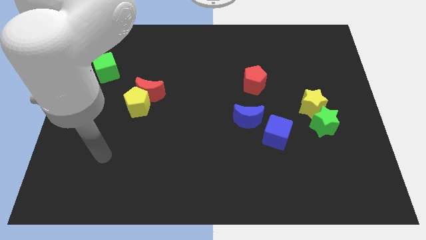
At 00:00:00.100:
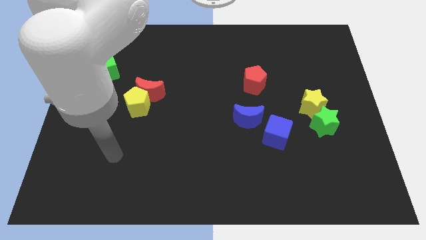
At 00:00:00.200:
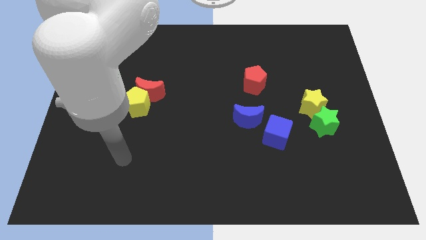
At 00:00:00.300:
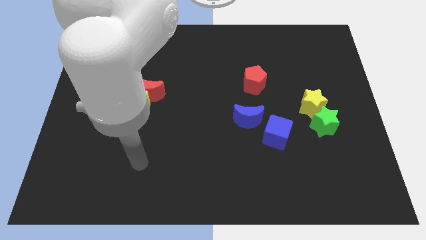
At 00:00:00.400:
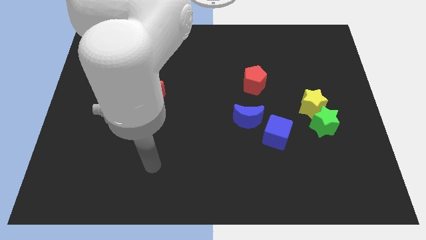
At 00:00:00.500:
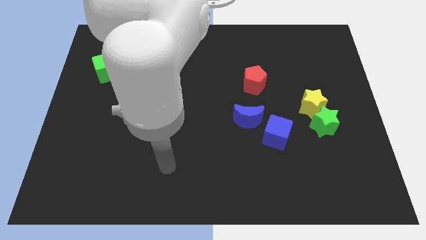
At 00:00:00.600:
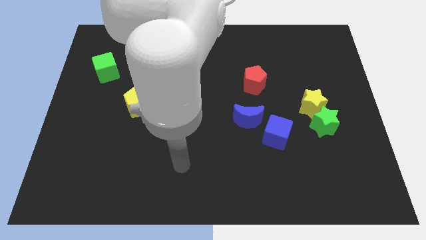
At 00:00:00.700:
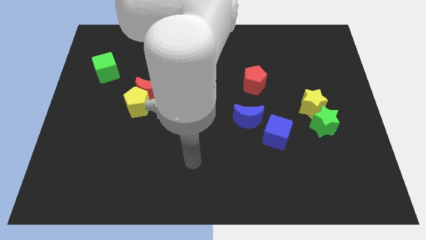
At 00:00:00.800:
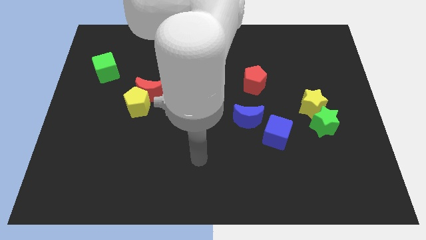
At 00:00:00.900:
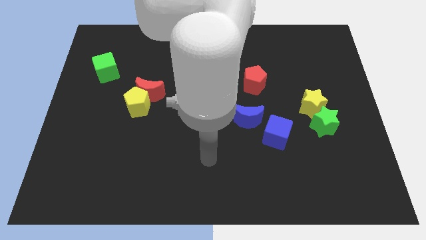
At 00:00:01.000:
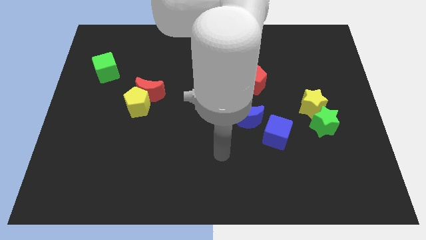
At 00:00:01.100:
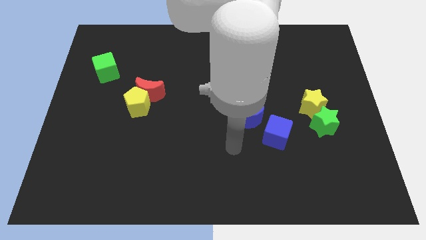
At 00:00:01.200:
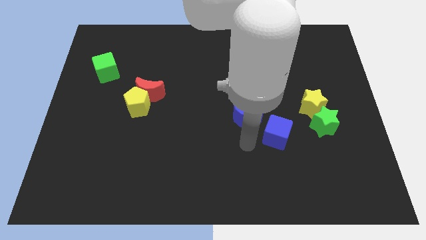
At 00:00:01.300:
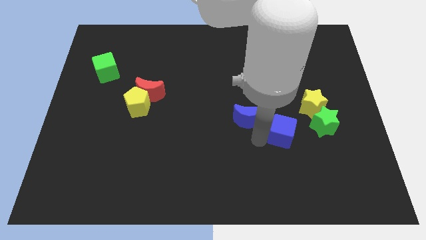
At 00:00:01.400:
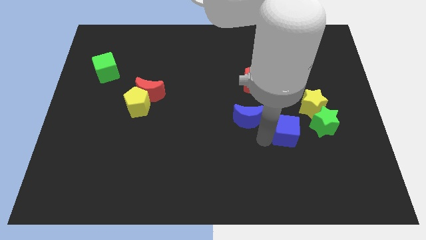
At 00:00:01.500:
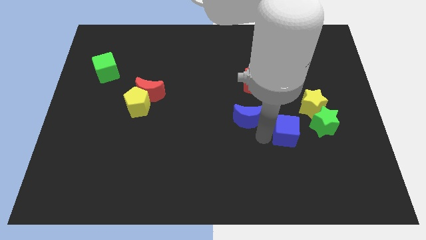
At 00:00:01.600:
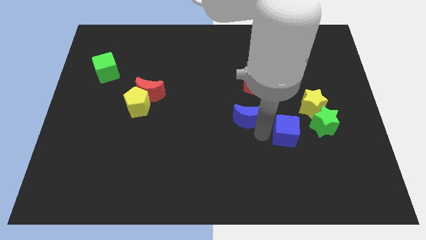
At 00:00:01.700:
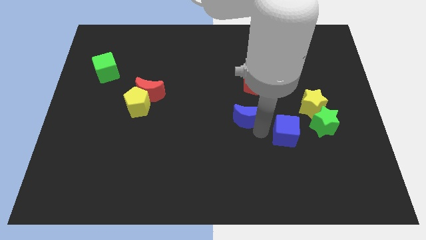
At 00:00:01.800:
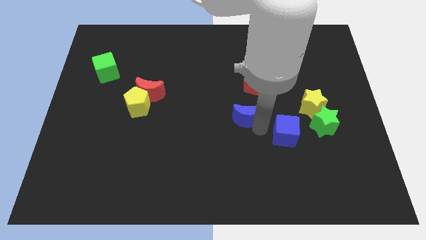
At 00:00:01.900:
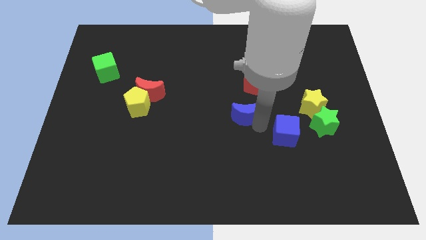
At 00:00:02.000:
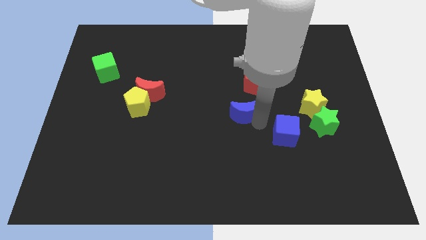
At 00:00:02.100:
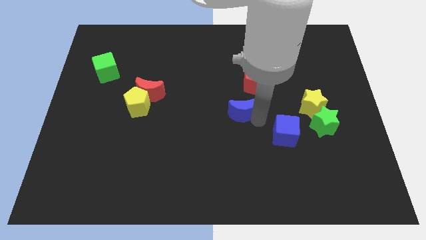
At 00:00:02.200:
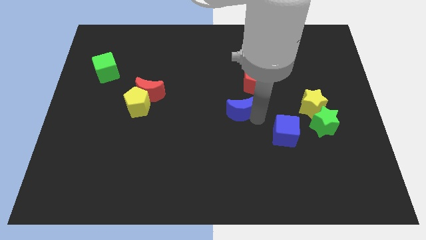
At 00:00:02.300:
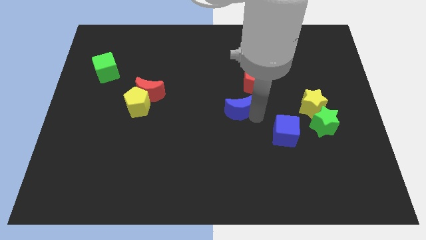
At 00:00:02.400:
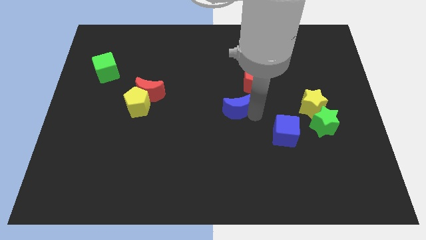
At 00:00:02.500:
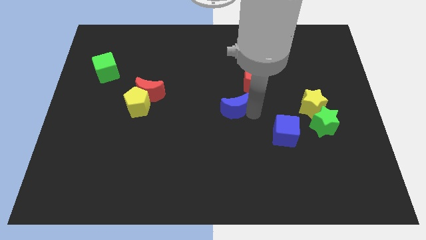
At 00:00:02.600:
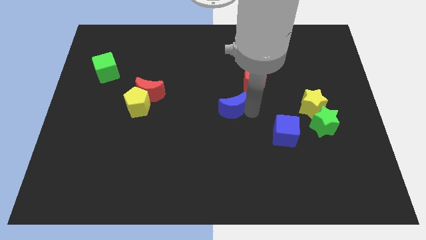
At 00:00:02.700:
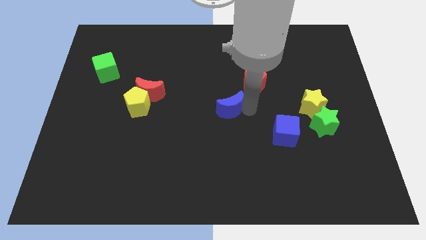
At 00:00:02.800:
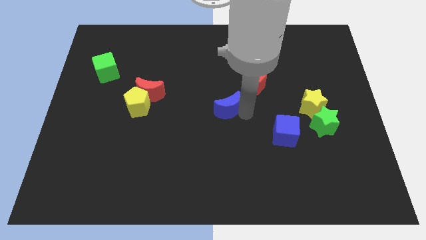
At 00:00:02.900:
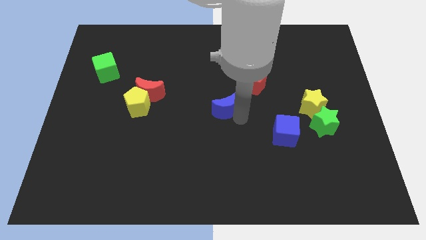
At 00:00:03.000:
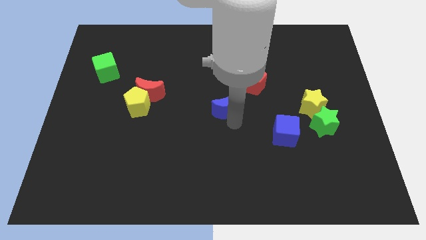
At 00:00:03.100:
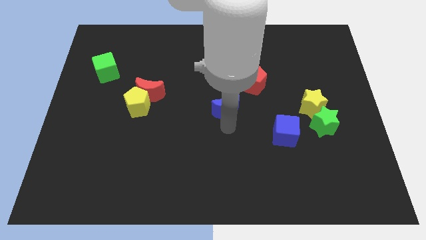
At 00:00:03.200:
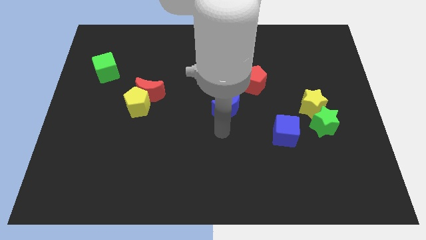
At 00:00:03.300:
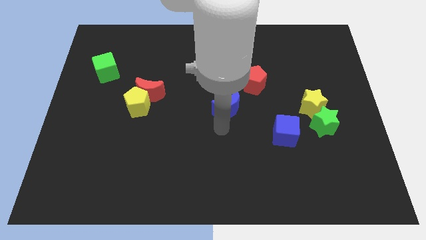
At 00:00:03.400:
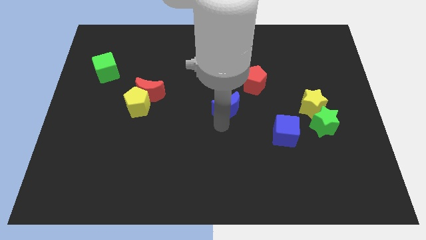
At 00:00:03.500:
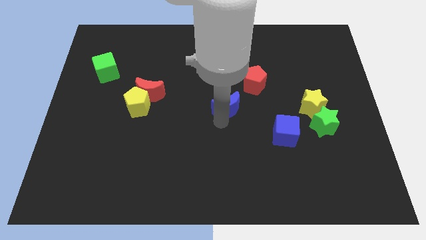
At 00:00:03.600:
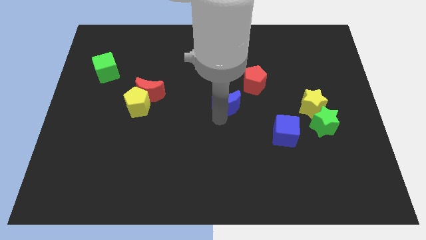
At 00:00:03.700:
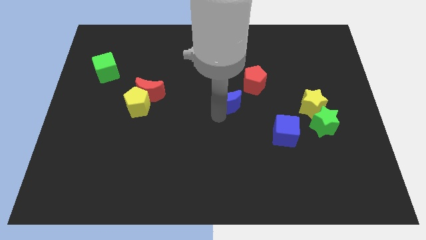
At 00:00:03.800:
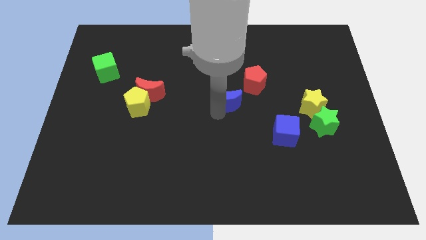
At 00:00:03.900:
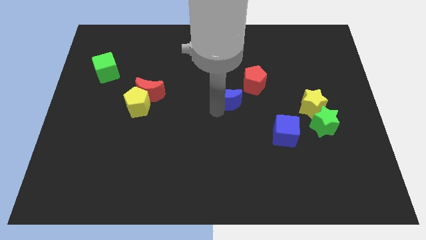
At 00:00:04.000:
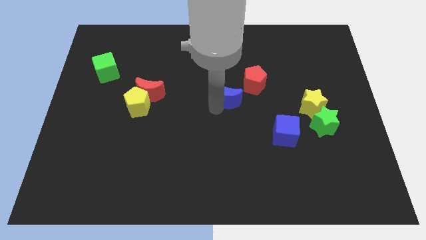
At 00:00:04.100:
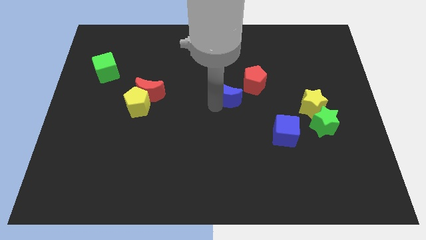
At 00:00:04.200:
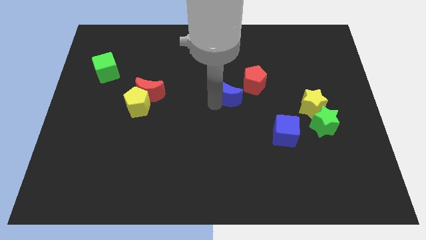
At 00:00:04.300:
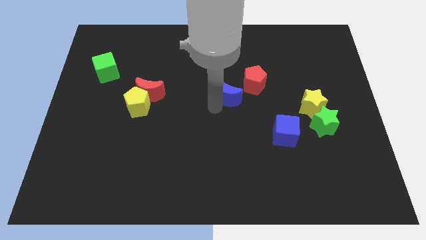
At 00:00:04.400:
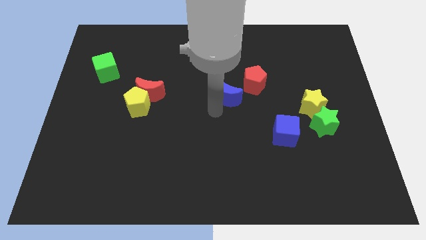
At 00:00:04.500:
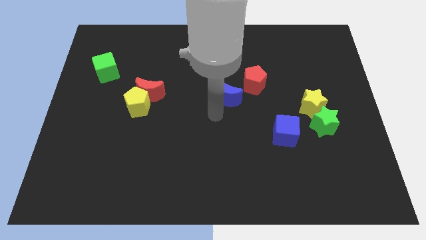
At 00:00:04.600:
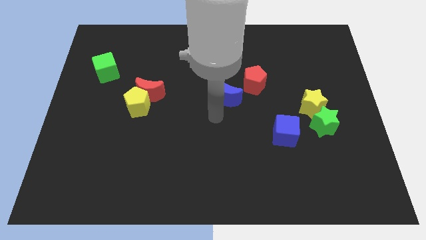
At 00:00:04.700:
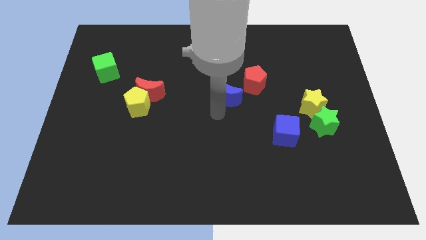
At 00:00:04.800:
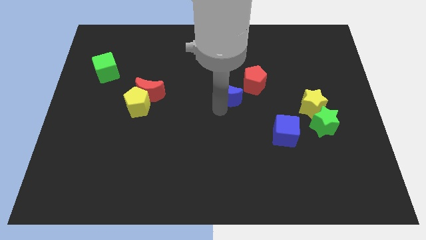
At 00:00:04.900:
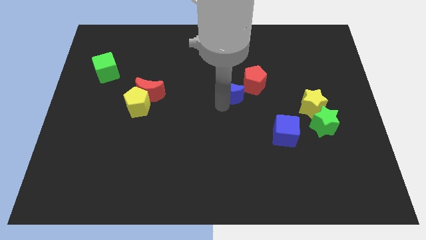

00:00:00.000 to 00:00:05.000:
move the blue moon somewhat upwards

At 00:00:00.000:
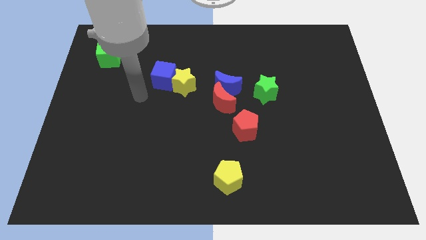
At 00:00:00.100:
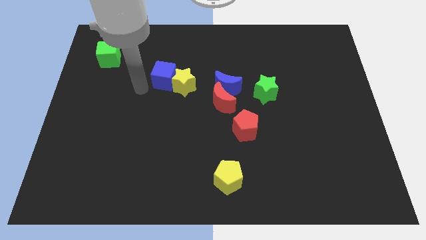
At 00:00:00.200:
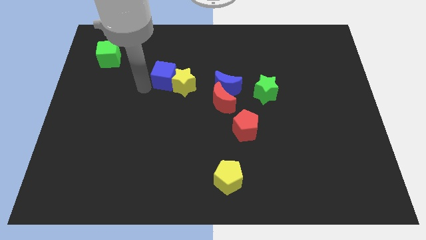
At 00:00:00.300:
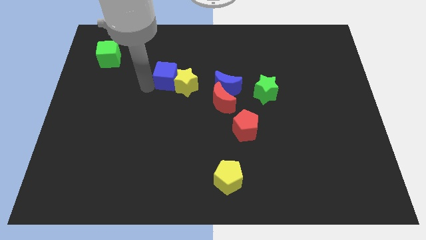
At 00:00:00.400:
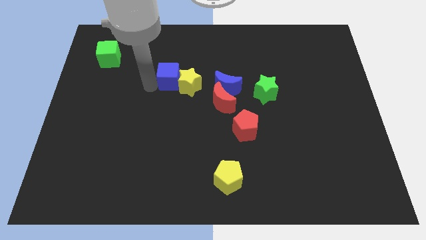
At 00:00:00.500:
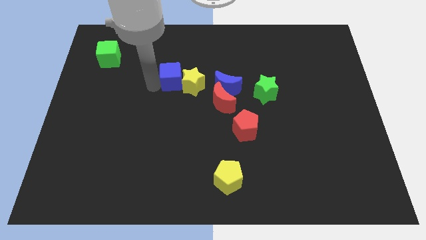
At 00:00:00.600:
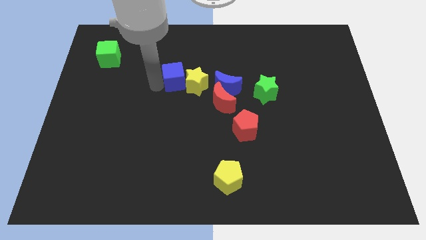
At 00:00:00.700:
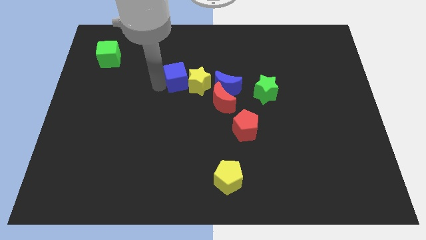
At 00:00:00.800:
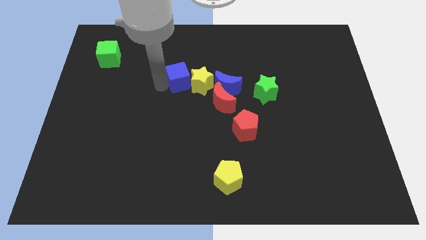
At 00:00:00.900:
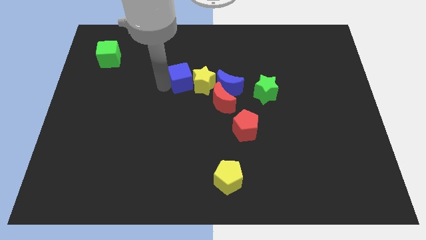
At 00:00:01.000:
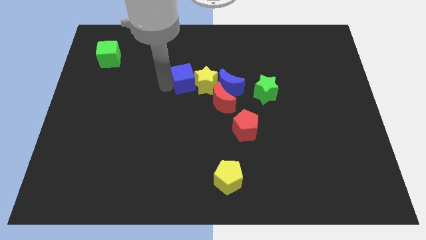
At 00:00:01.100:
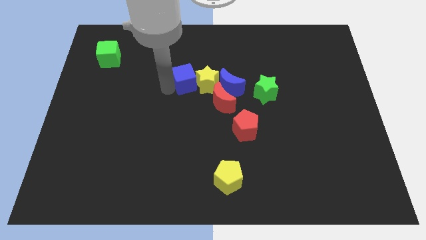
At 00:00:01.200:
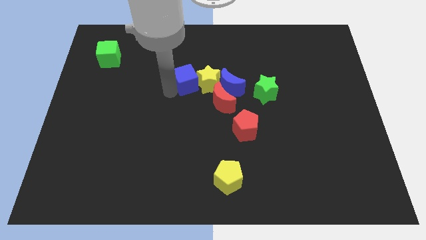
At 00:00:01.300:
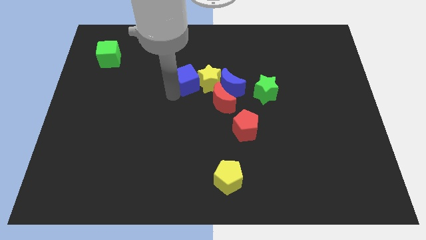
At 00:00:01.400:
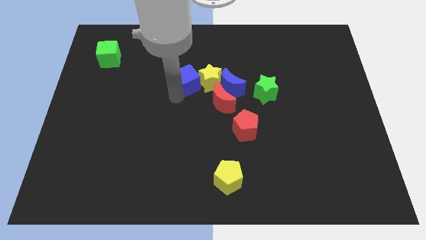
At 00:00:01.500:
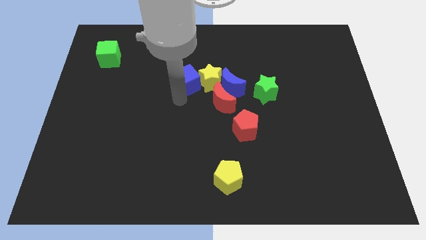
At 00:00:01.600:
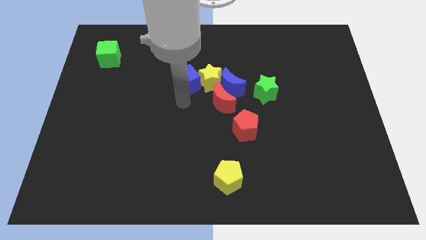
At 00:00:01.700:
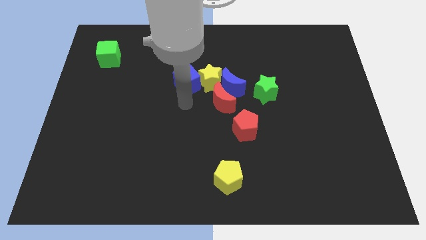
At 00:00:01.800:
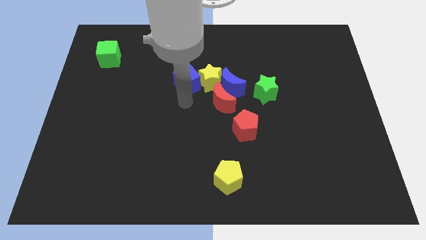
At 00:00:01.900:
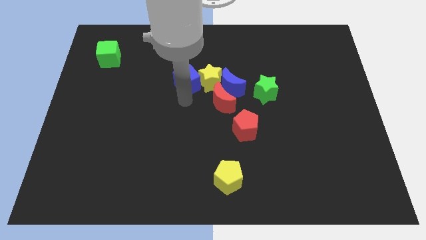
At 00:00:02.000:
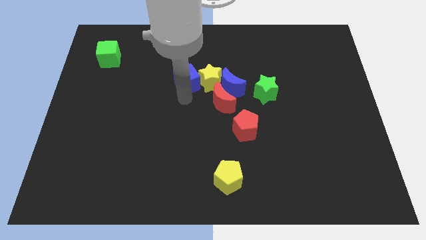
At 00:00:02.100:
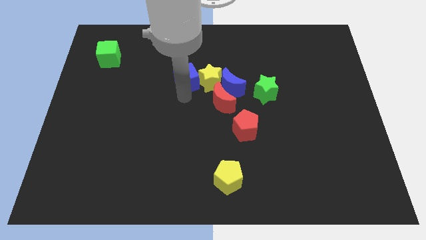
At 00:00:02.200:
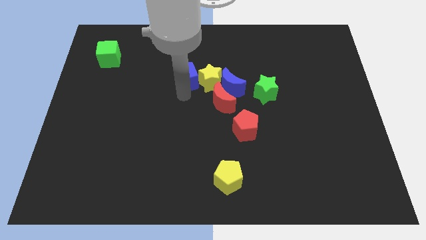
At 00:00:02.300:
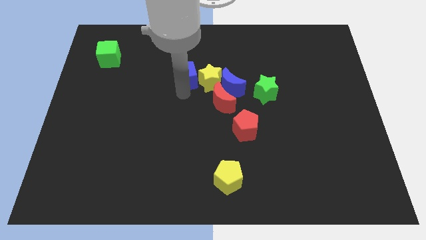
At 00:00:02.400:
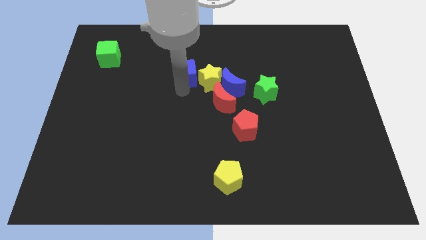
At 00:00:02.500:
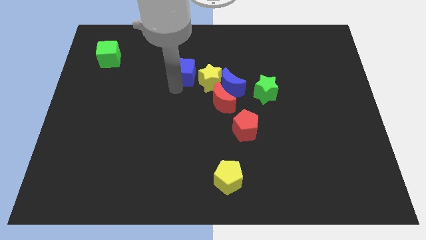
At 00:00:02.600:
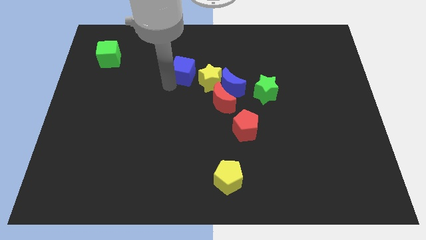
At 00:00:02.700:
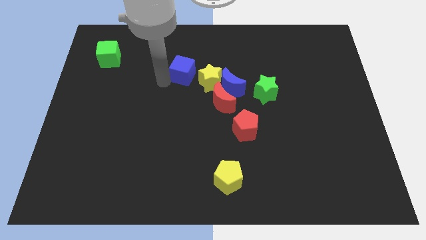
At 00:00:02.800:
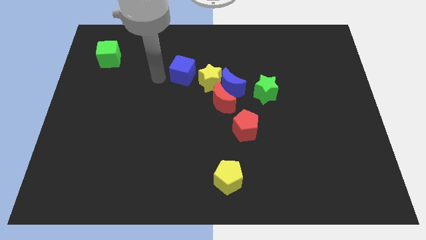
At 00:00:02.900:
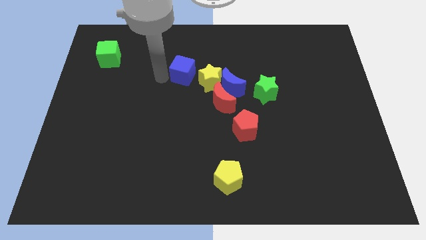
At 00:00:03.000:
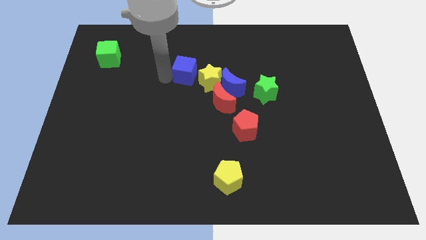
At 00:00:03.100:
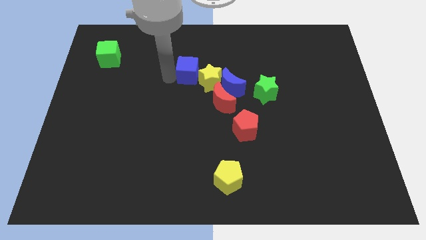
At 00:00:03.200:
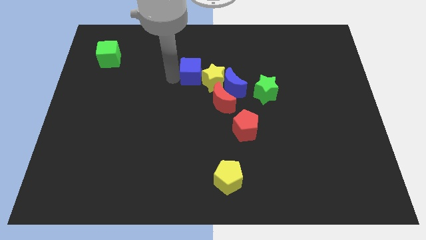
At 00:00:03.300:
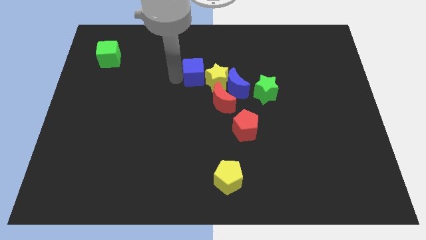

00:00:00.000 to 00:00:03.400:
slightly push the blue cube to the right
